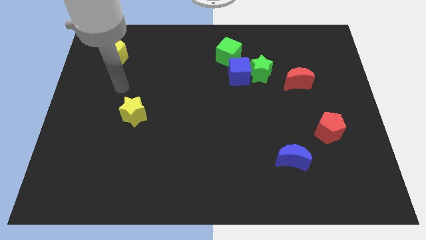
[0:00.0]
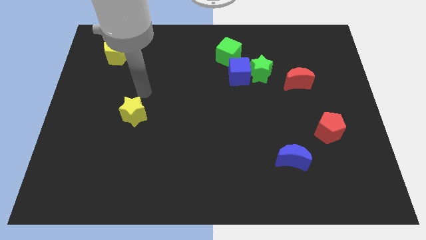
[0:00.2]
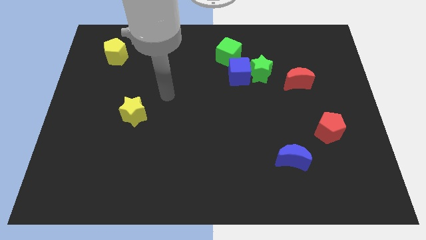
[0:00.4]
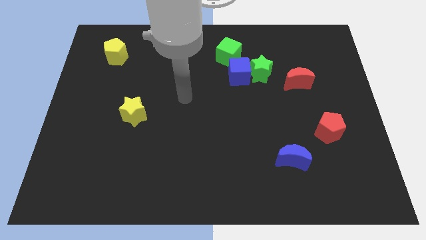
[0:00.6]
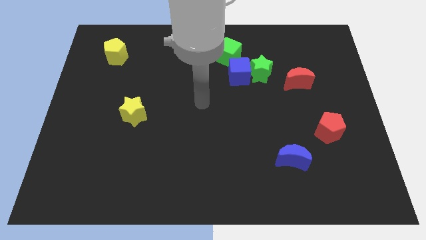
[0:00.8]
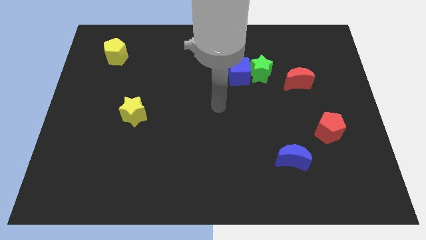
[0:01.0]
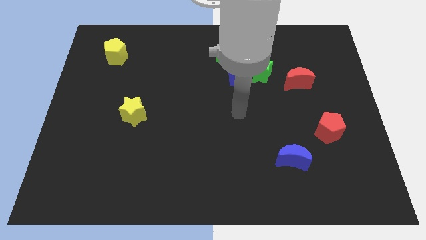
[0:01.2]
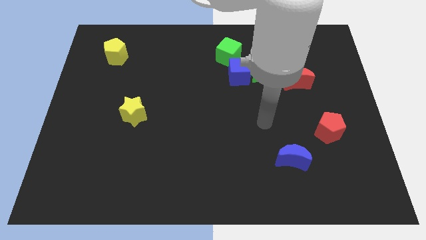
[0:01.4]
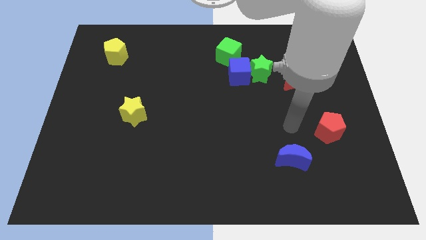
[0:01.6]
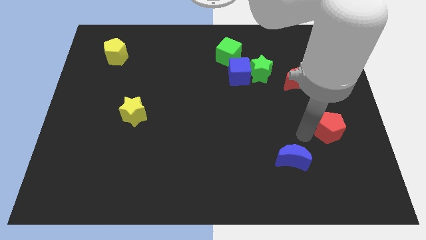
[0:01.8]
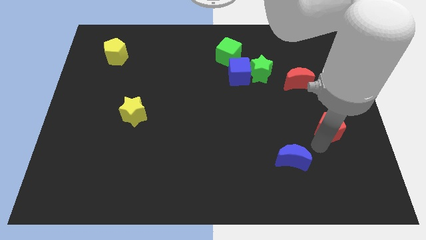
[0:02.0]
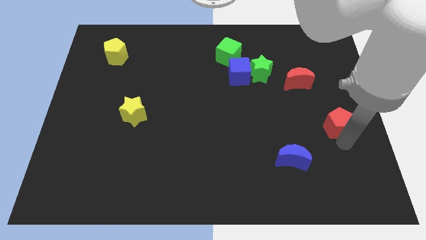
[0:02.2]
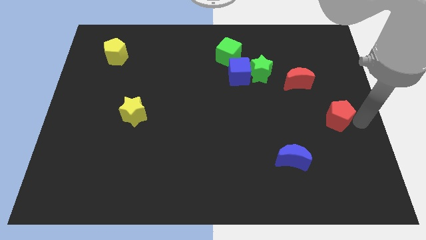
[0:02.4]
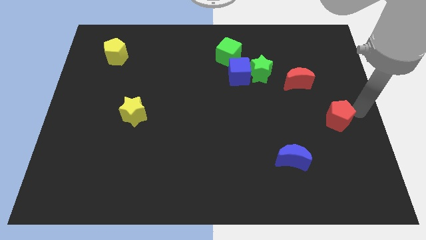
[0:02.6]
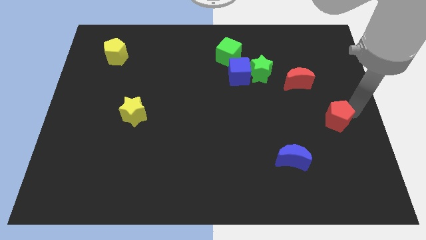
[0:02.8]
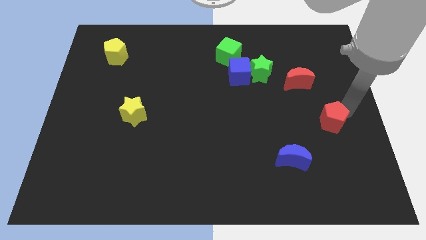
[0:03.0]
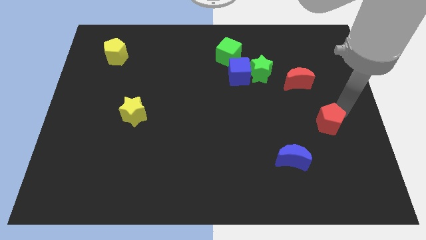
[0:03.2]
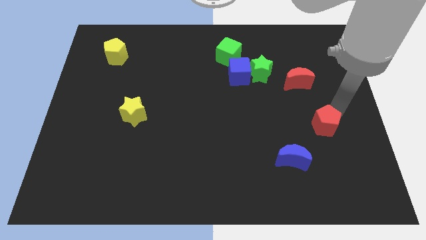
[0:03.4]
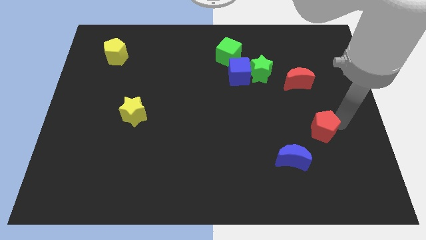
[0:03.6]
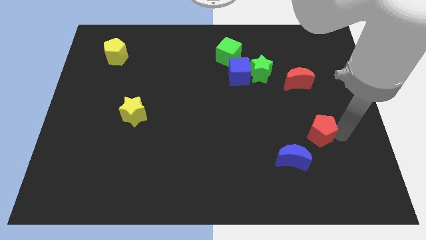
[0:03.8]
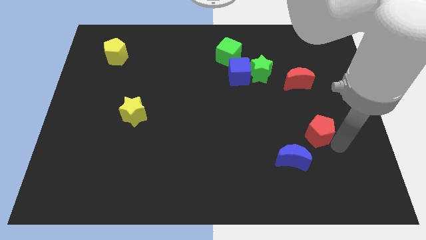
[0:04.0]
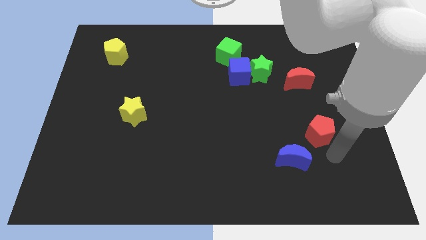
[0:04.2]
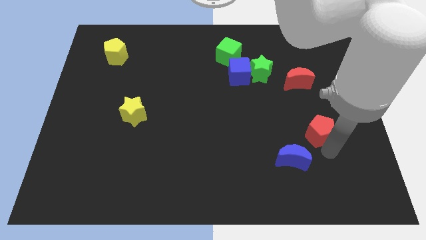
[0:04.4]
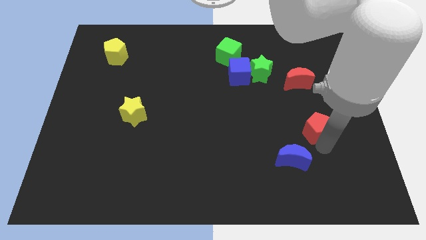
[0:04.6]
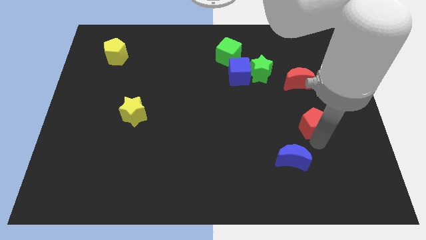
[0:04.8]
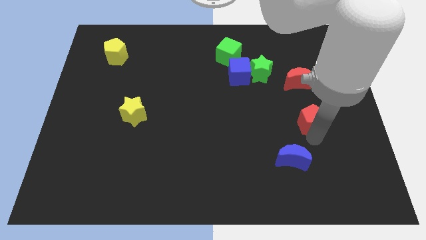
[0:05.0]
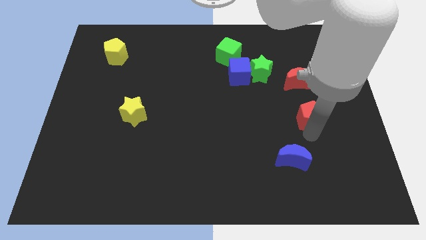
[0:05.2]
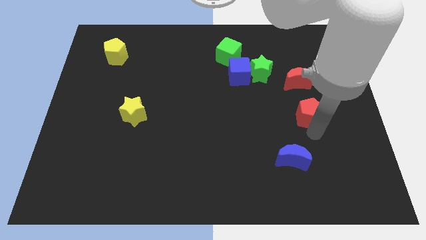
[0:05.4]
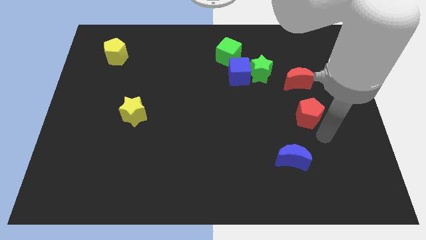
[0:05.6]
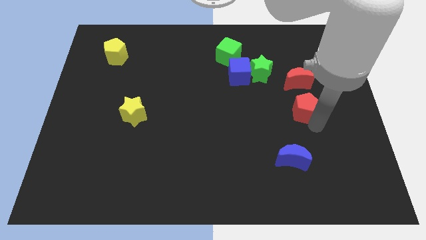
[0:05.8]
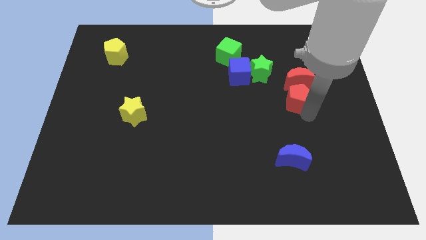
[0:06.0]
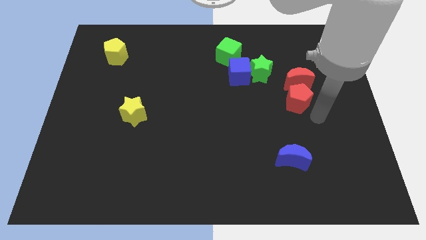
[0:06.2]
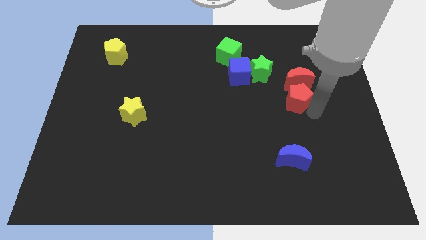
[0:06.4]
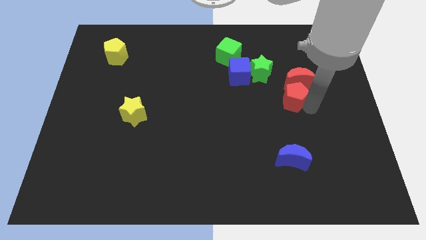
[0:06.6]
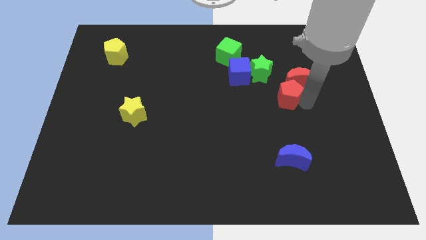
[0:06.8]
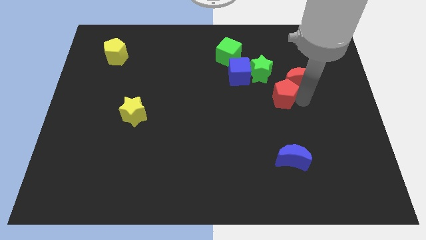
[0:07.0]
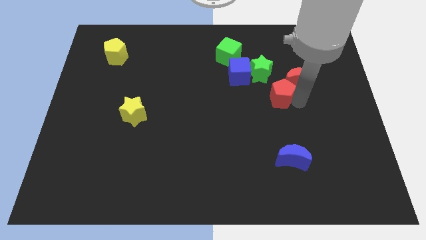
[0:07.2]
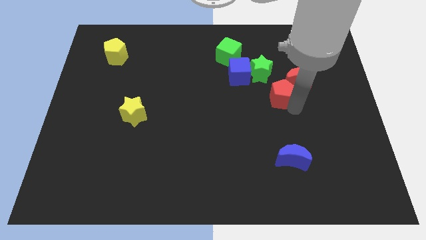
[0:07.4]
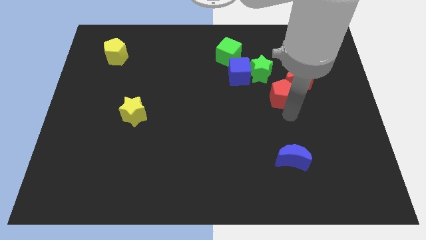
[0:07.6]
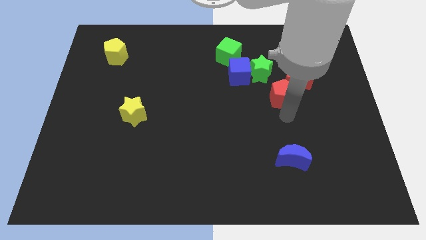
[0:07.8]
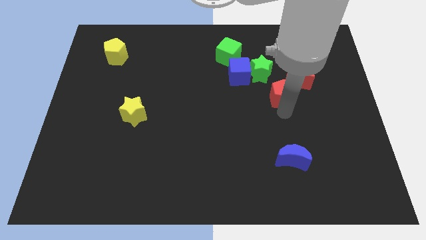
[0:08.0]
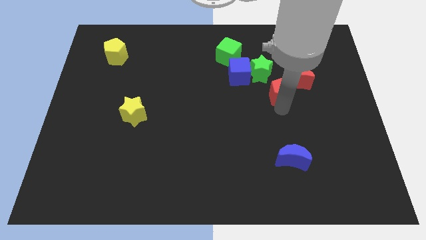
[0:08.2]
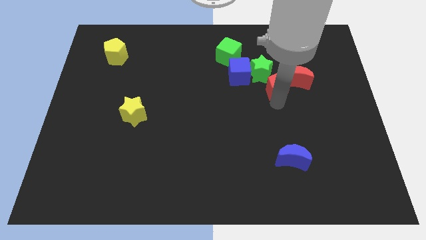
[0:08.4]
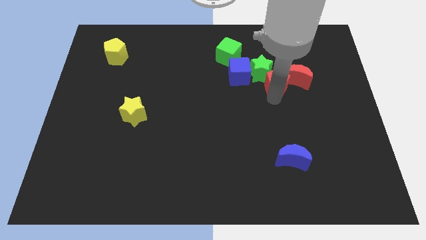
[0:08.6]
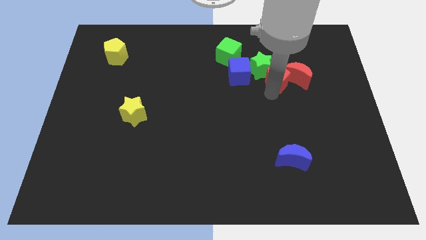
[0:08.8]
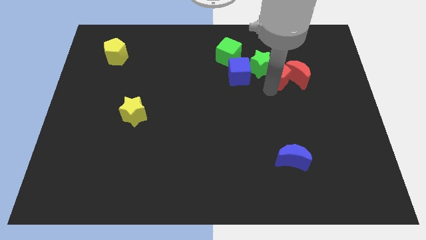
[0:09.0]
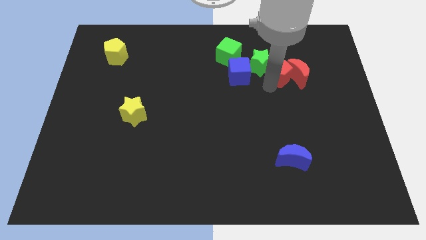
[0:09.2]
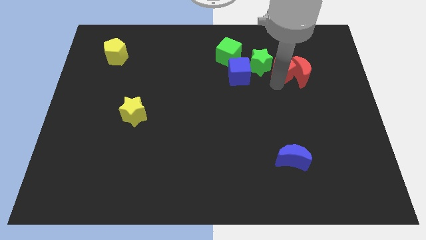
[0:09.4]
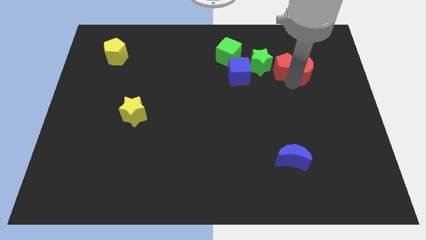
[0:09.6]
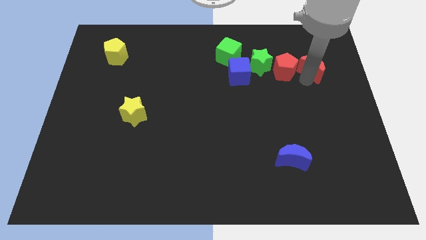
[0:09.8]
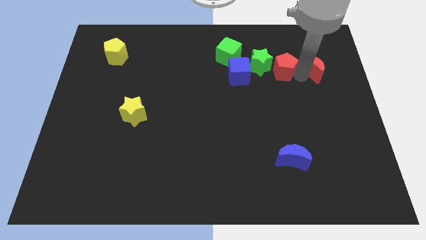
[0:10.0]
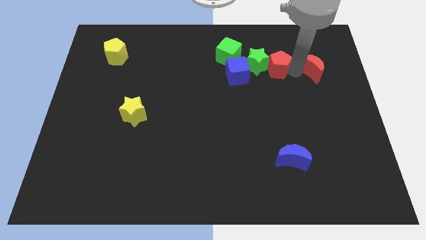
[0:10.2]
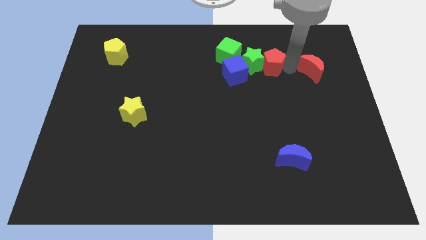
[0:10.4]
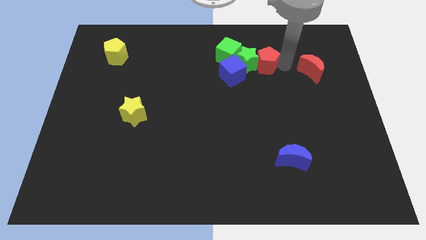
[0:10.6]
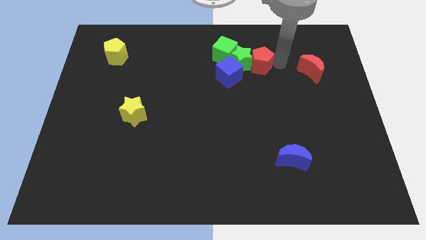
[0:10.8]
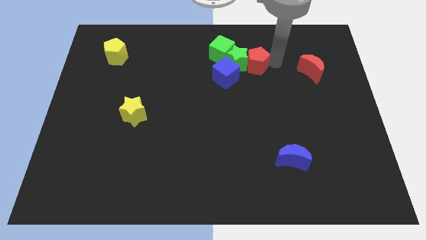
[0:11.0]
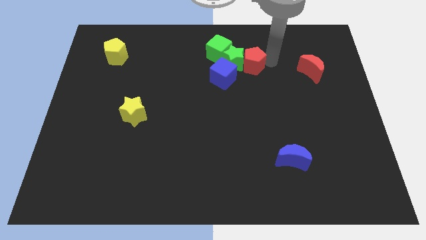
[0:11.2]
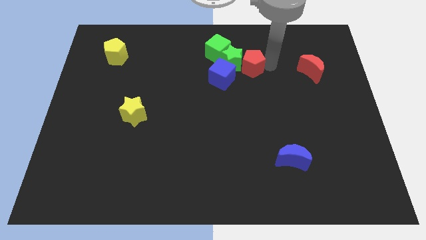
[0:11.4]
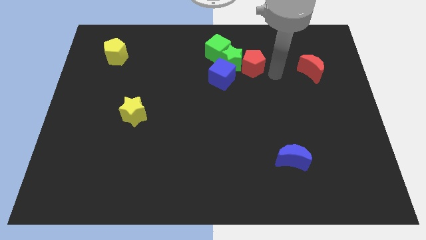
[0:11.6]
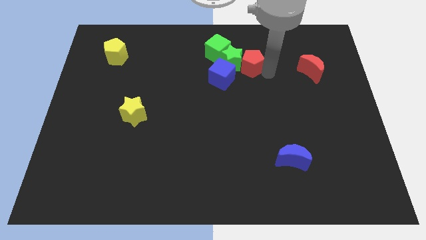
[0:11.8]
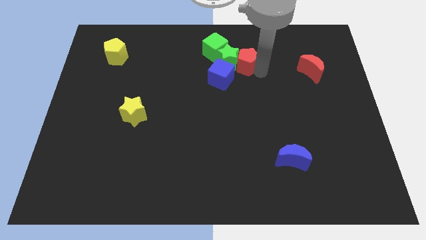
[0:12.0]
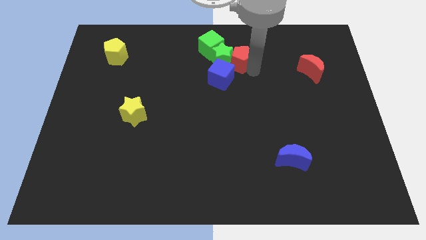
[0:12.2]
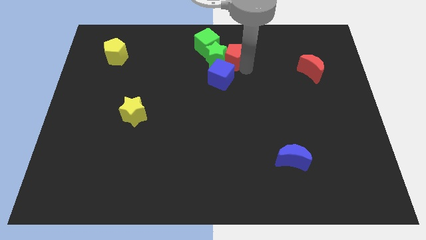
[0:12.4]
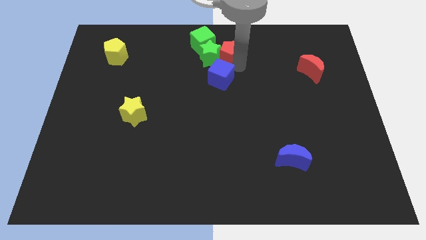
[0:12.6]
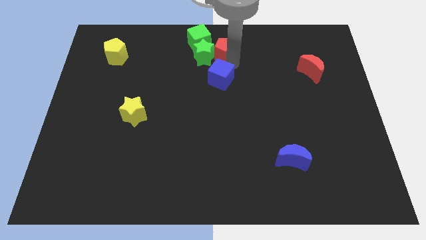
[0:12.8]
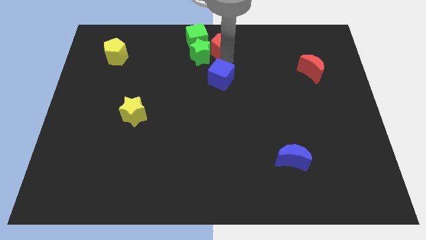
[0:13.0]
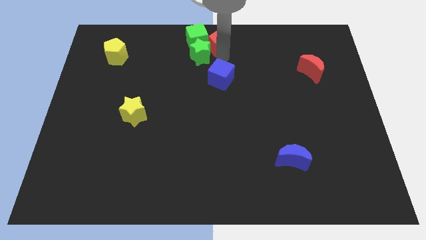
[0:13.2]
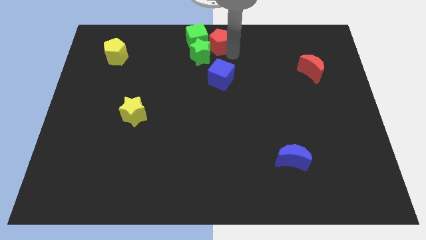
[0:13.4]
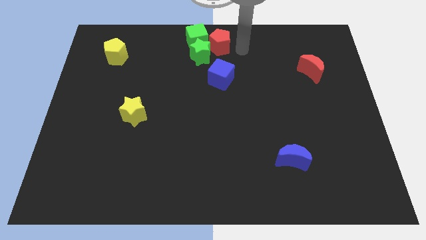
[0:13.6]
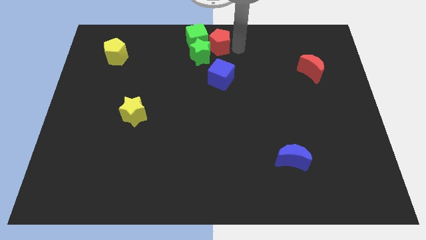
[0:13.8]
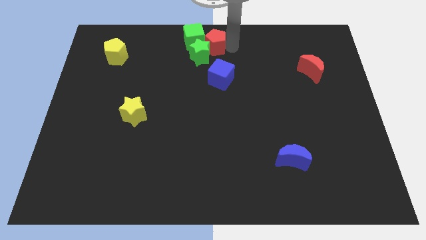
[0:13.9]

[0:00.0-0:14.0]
put the red pentagon next to the green cube
